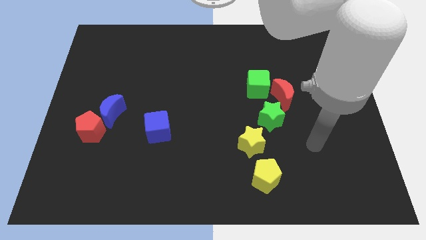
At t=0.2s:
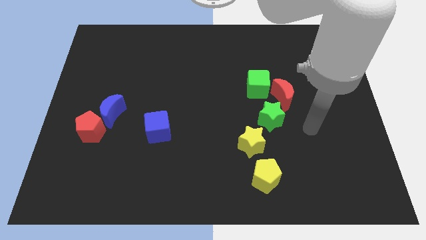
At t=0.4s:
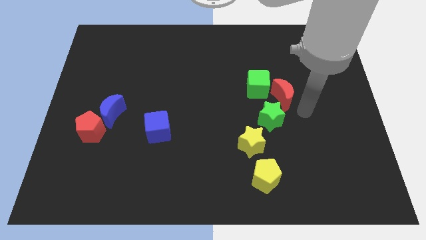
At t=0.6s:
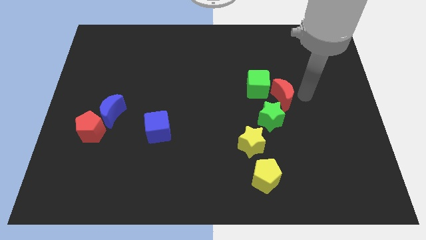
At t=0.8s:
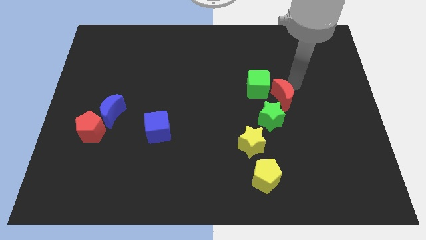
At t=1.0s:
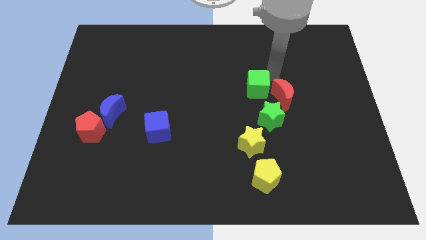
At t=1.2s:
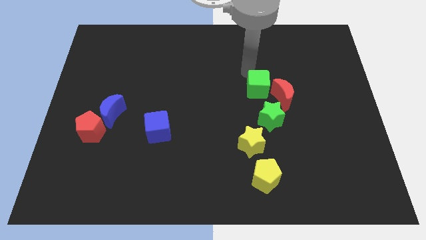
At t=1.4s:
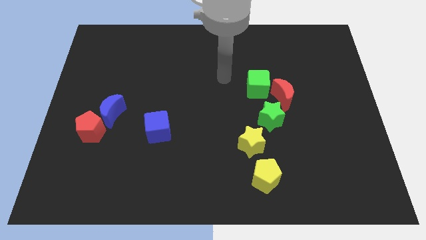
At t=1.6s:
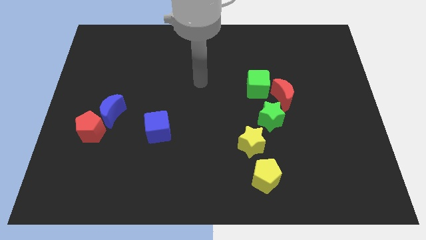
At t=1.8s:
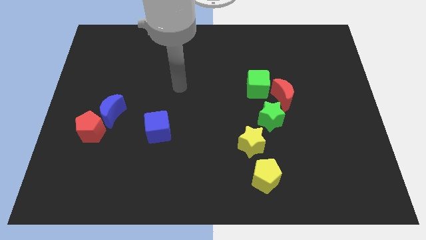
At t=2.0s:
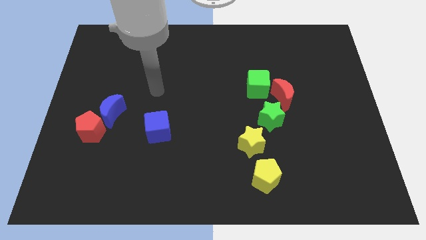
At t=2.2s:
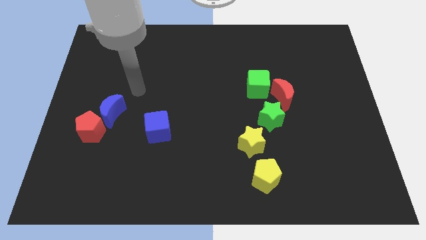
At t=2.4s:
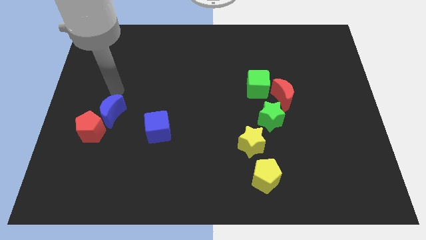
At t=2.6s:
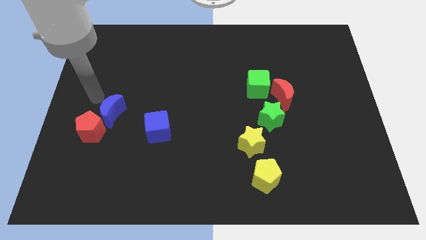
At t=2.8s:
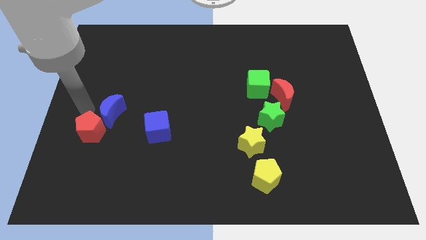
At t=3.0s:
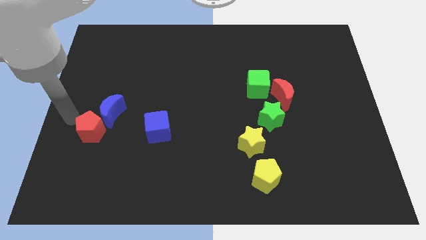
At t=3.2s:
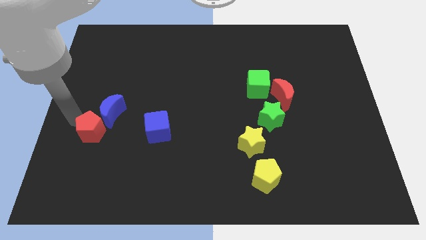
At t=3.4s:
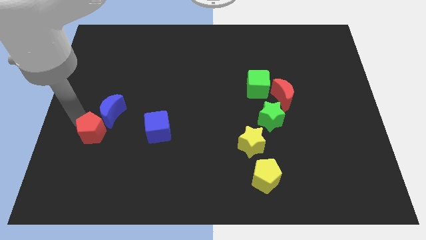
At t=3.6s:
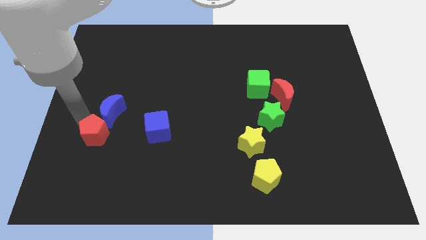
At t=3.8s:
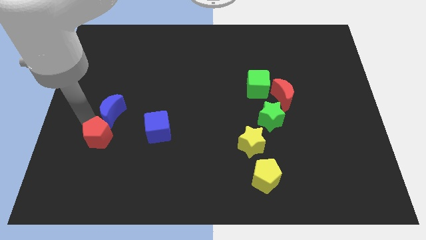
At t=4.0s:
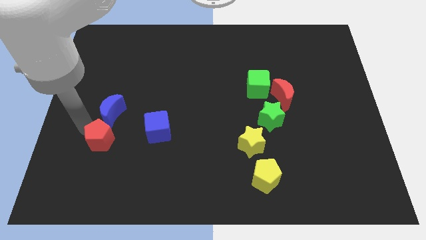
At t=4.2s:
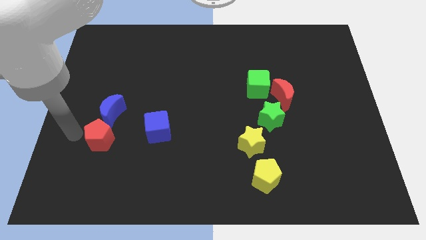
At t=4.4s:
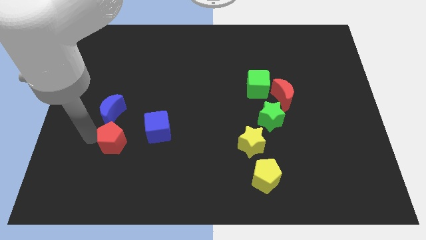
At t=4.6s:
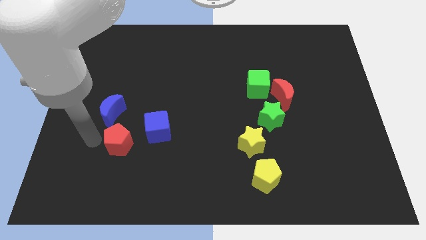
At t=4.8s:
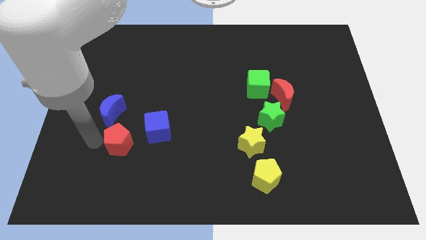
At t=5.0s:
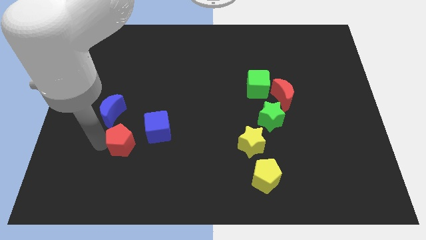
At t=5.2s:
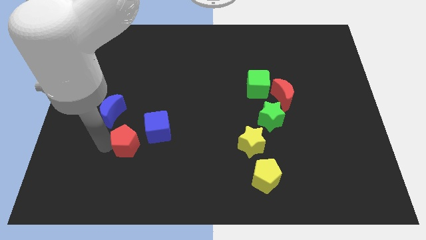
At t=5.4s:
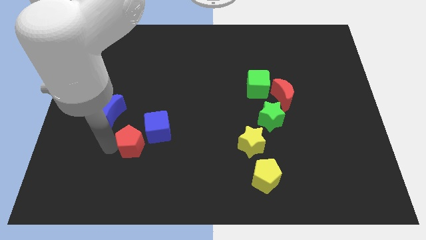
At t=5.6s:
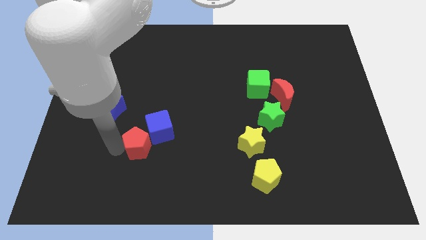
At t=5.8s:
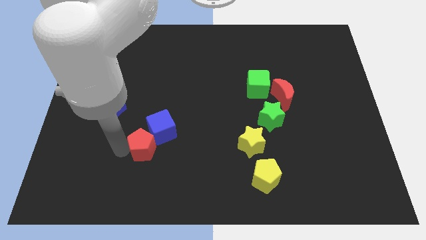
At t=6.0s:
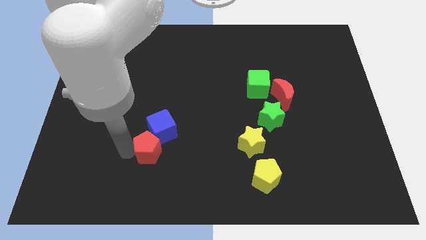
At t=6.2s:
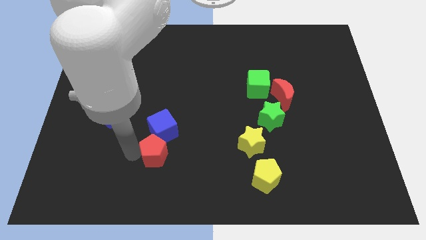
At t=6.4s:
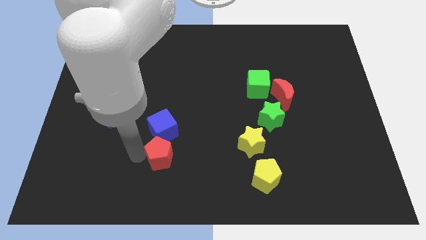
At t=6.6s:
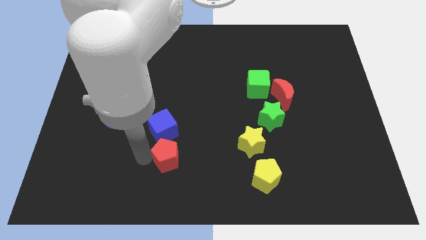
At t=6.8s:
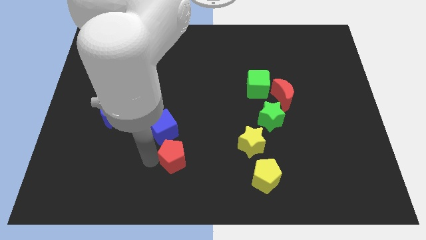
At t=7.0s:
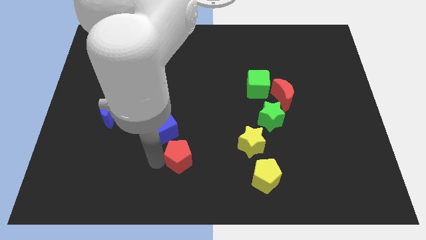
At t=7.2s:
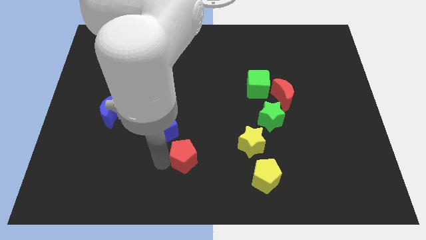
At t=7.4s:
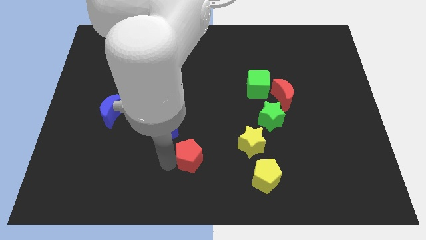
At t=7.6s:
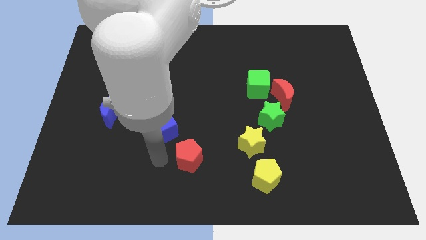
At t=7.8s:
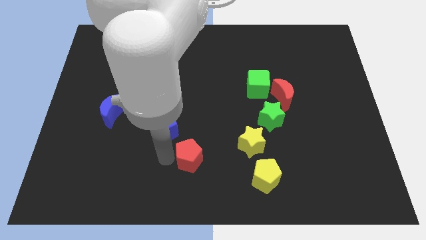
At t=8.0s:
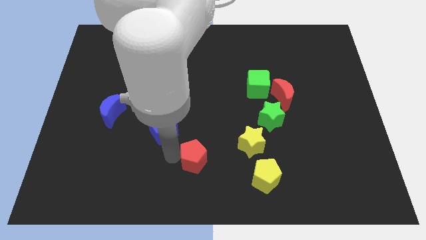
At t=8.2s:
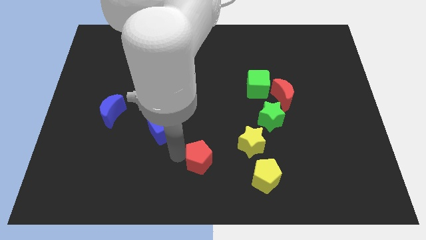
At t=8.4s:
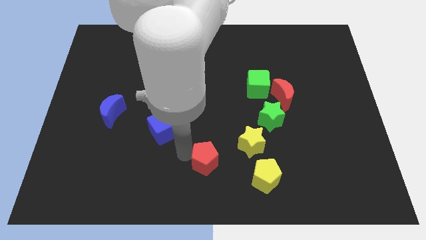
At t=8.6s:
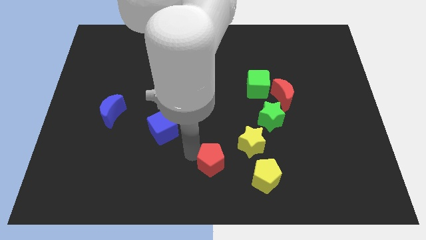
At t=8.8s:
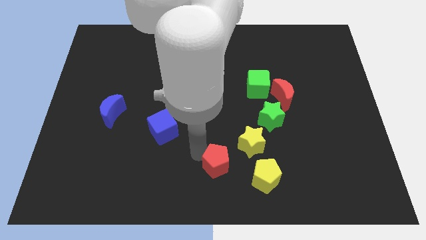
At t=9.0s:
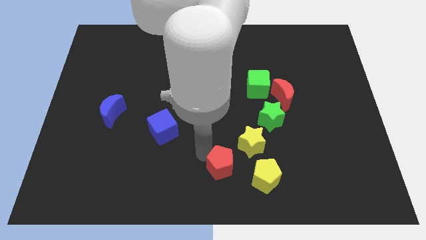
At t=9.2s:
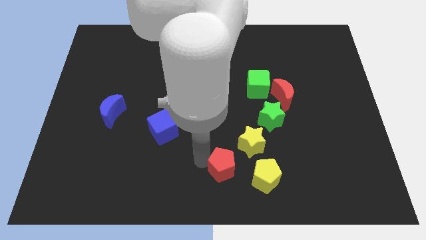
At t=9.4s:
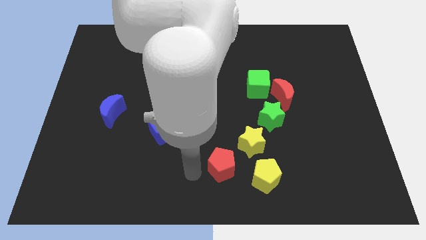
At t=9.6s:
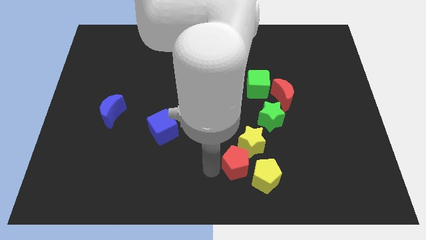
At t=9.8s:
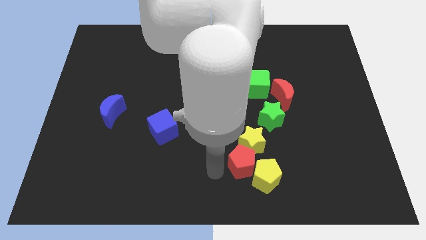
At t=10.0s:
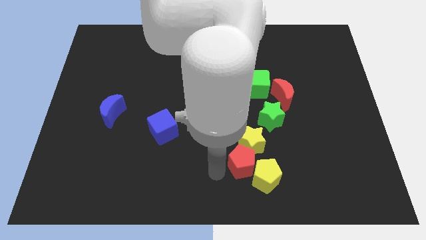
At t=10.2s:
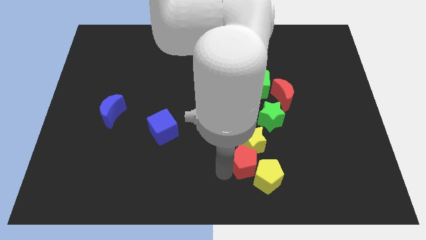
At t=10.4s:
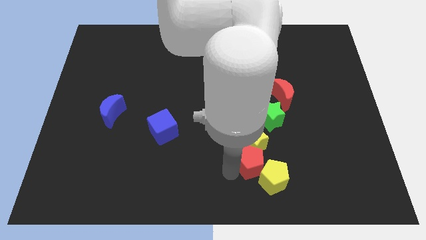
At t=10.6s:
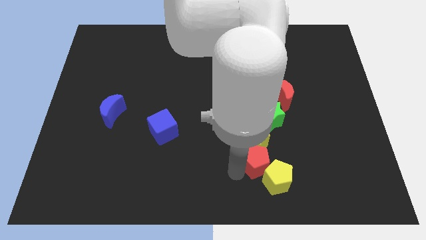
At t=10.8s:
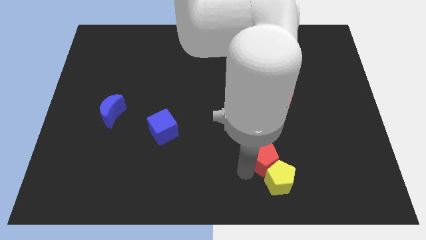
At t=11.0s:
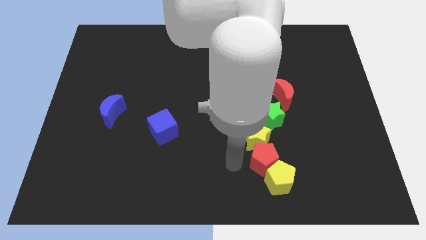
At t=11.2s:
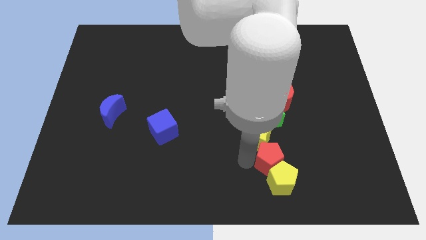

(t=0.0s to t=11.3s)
move the red pentagon diagonally up and to the right of the yellow pentagon

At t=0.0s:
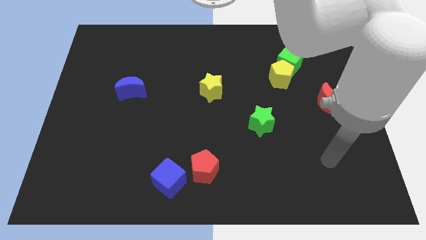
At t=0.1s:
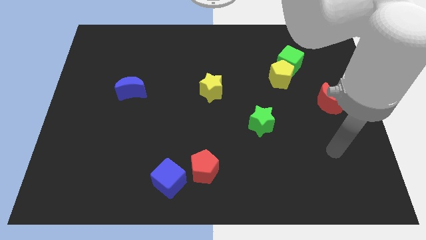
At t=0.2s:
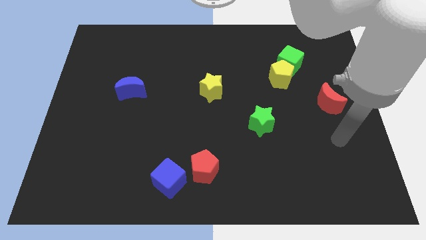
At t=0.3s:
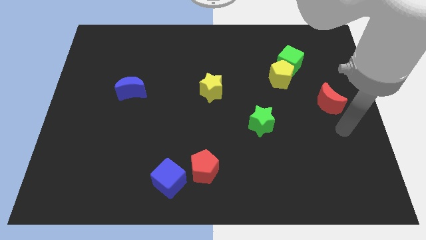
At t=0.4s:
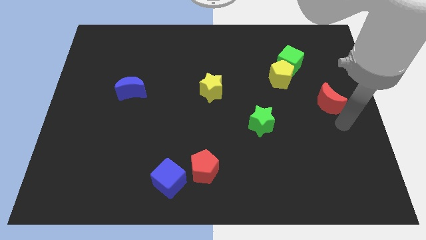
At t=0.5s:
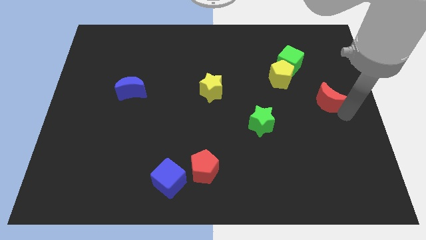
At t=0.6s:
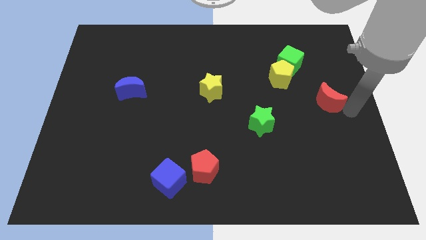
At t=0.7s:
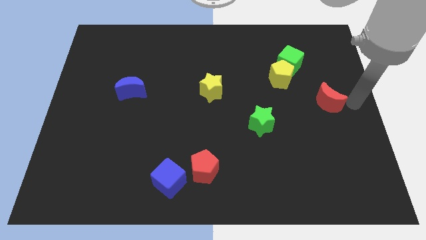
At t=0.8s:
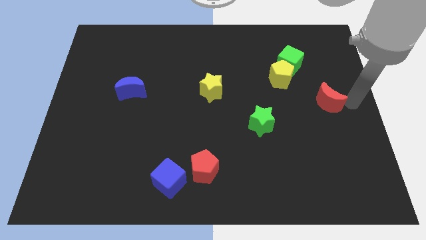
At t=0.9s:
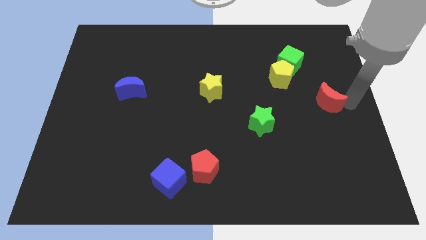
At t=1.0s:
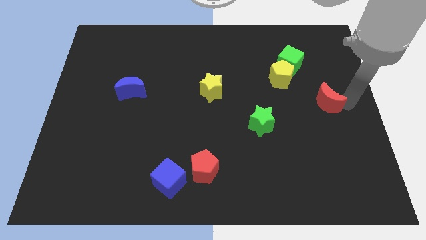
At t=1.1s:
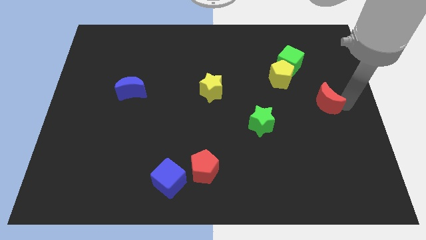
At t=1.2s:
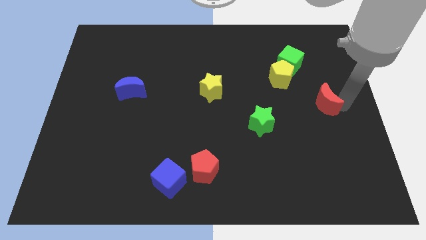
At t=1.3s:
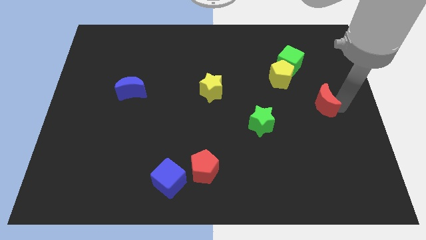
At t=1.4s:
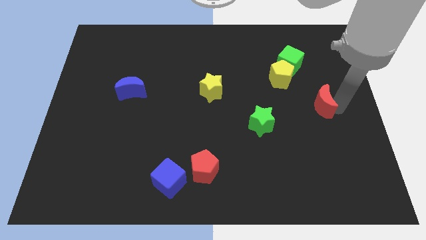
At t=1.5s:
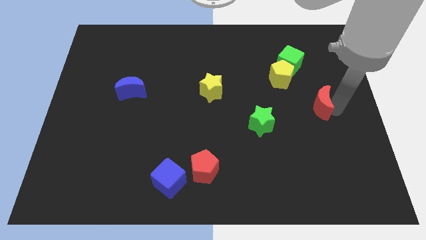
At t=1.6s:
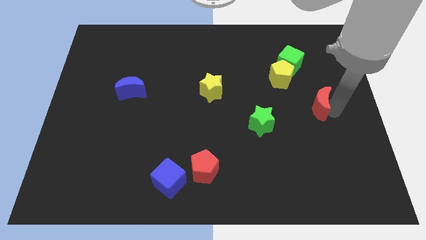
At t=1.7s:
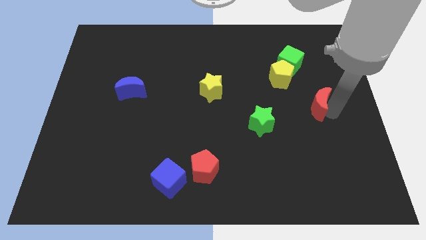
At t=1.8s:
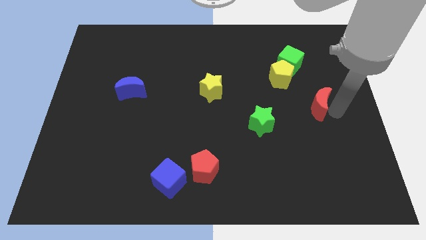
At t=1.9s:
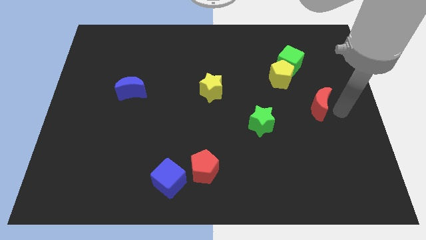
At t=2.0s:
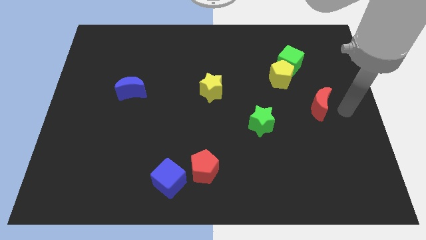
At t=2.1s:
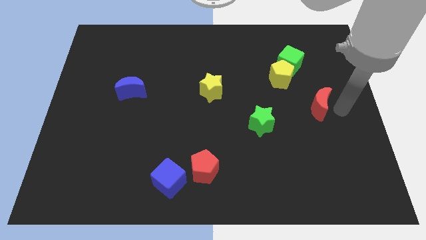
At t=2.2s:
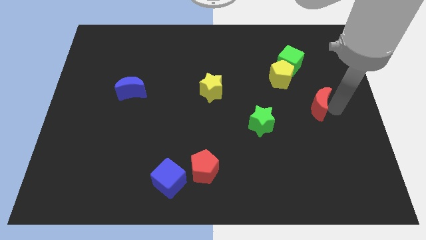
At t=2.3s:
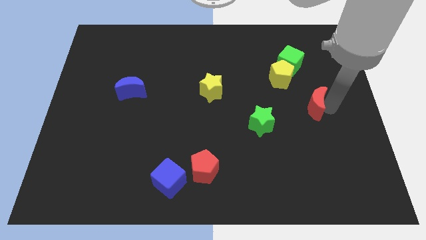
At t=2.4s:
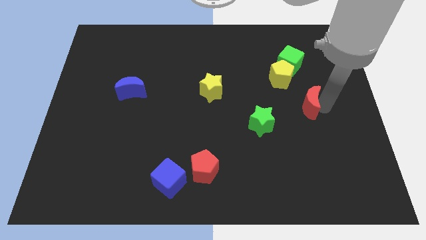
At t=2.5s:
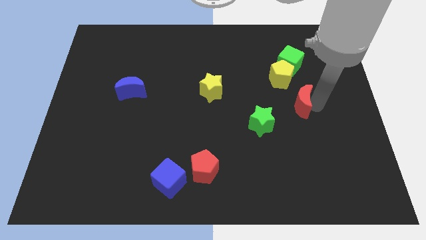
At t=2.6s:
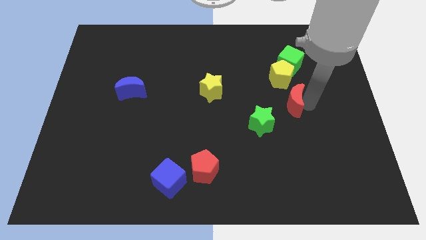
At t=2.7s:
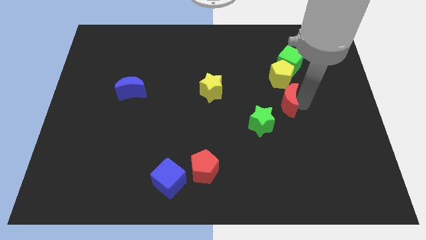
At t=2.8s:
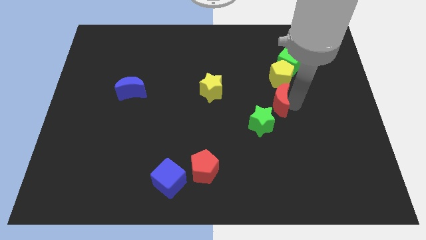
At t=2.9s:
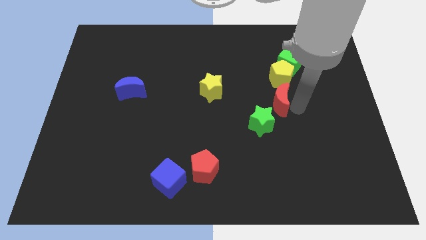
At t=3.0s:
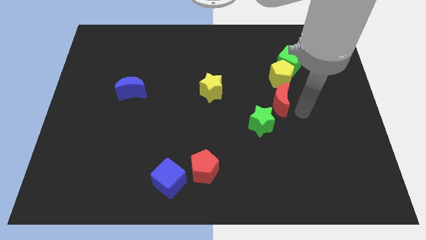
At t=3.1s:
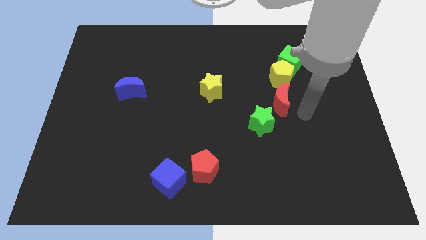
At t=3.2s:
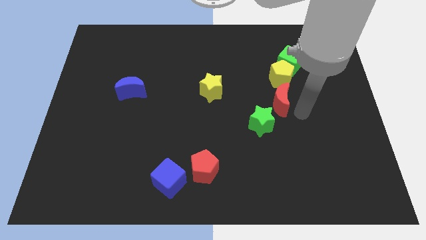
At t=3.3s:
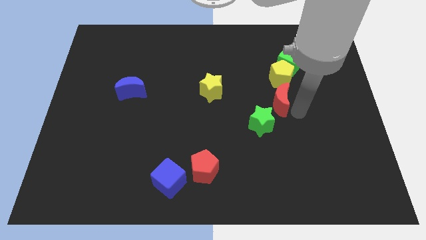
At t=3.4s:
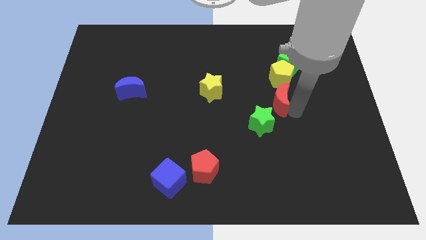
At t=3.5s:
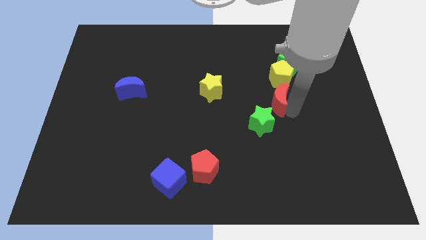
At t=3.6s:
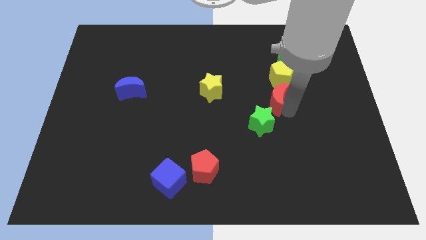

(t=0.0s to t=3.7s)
put the red moon just right of the yellow star
